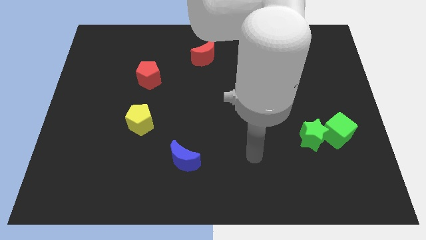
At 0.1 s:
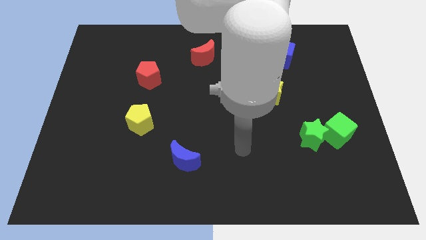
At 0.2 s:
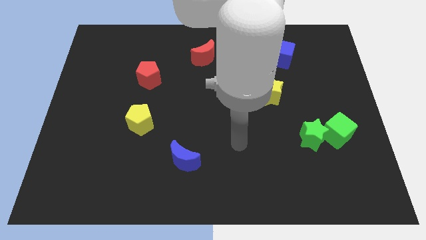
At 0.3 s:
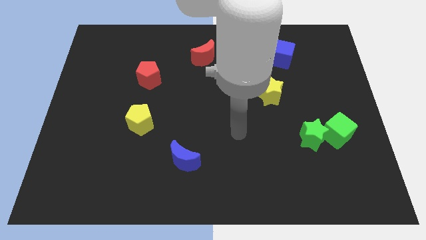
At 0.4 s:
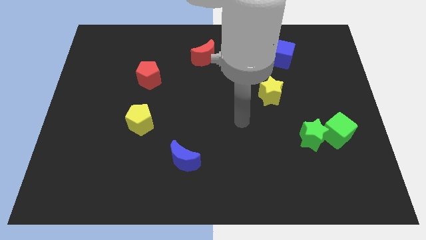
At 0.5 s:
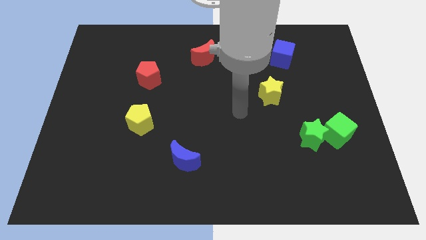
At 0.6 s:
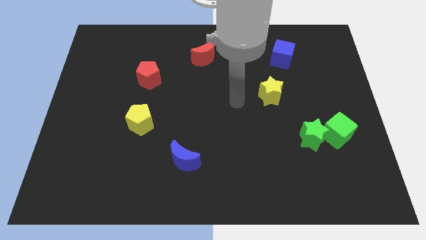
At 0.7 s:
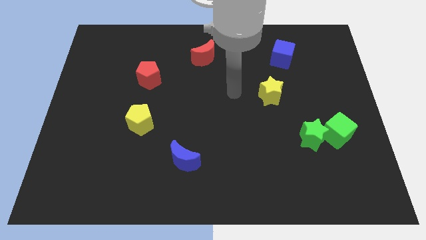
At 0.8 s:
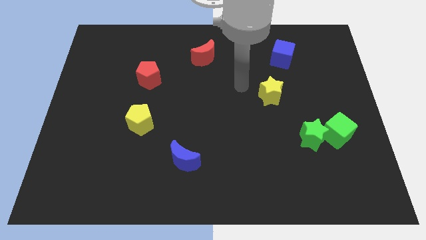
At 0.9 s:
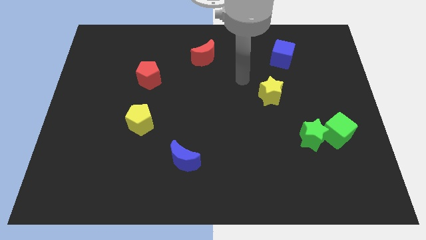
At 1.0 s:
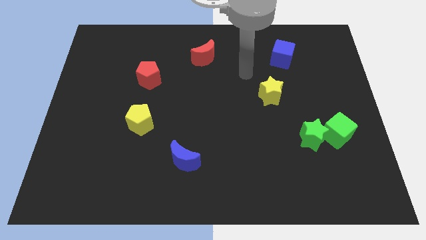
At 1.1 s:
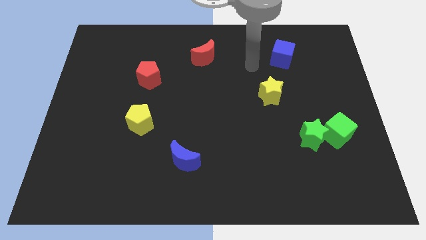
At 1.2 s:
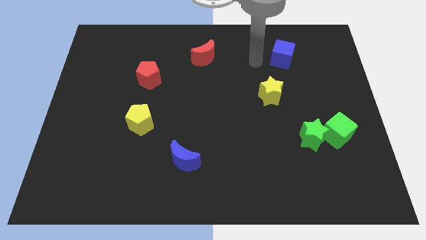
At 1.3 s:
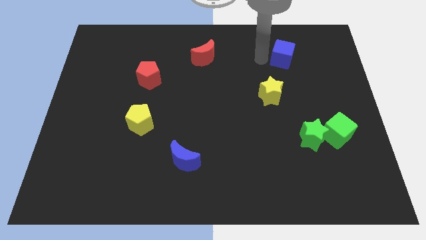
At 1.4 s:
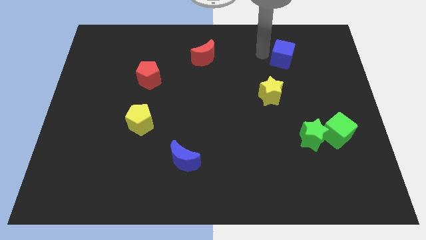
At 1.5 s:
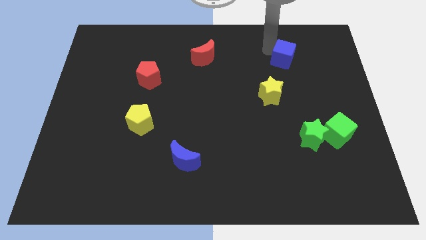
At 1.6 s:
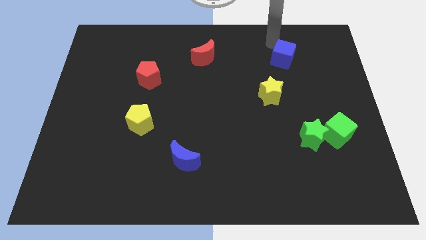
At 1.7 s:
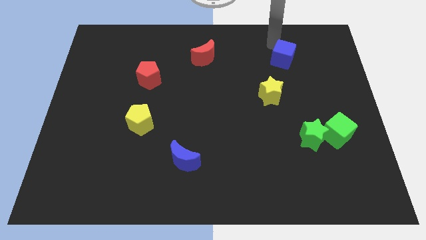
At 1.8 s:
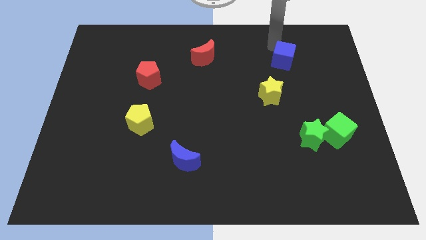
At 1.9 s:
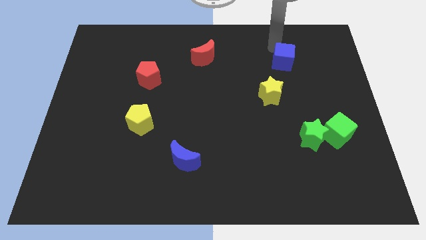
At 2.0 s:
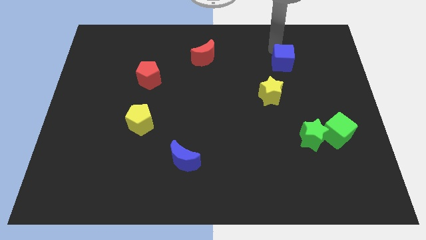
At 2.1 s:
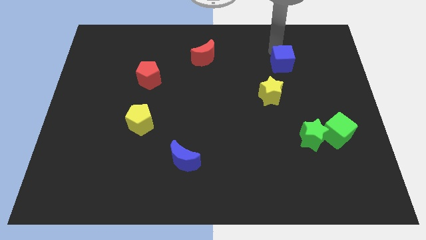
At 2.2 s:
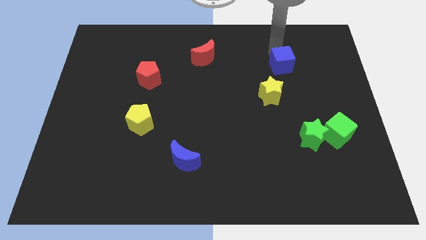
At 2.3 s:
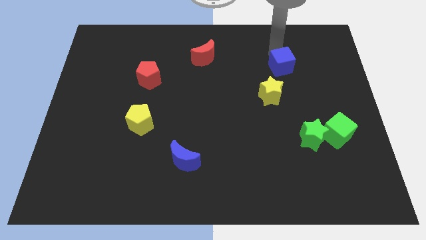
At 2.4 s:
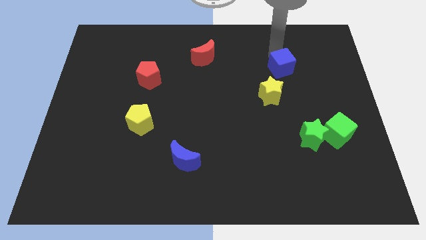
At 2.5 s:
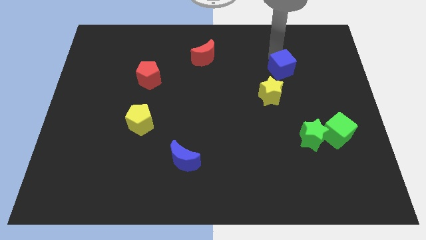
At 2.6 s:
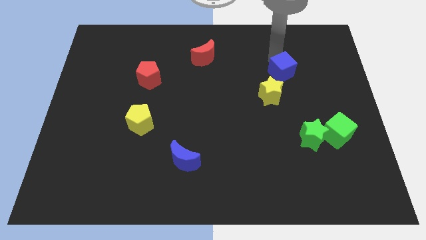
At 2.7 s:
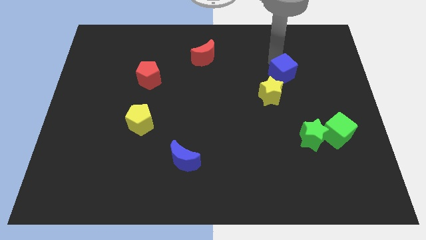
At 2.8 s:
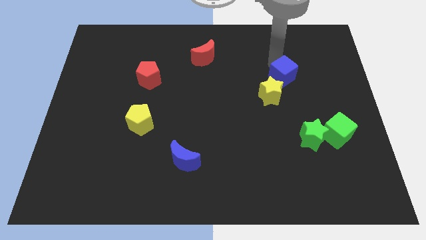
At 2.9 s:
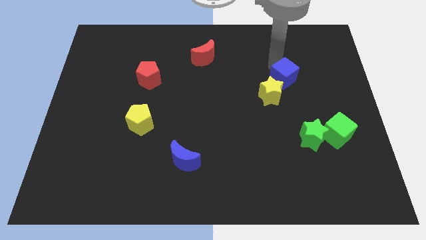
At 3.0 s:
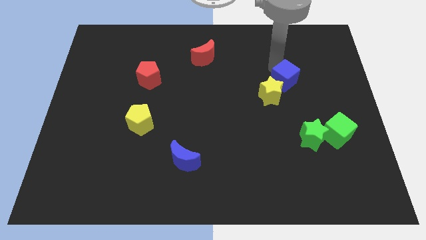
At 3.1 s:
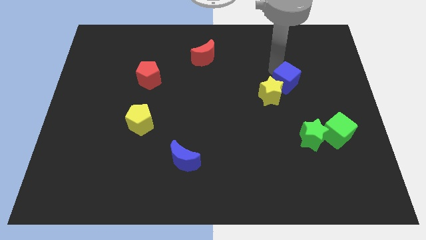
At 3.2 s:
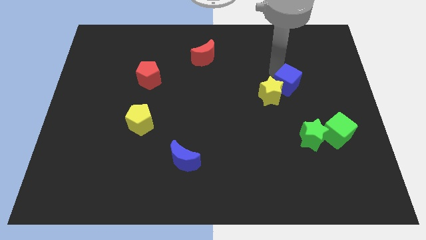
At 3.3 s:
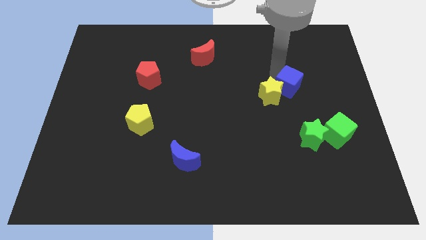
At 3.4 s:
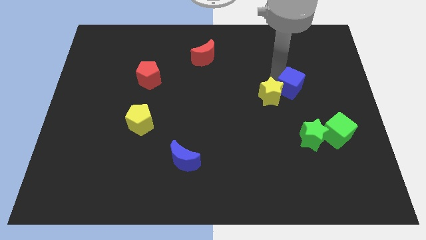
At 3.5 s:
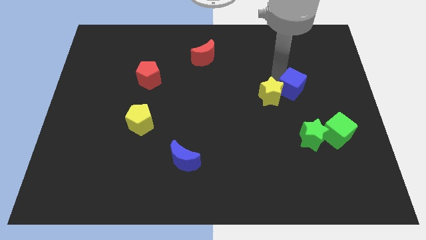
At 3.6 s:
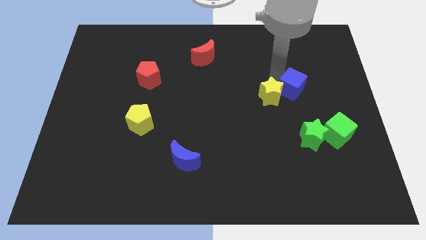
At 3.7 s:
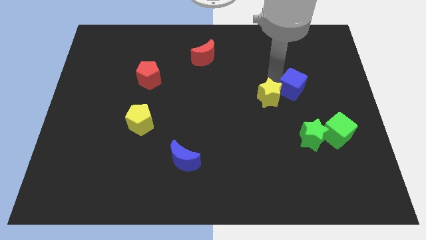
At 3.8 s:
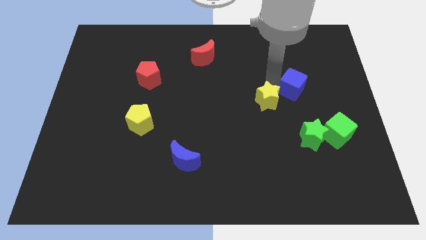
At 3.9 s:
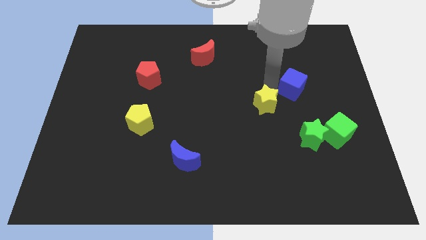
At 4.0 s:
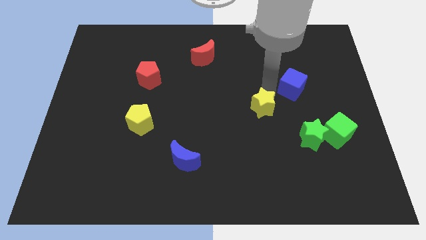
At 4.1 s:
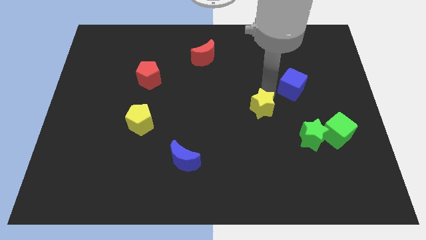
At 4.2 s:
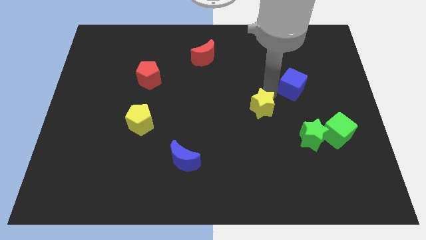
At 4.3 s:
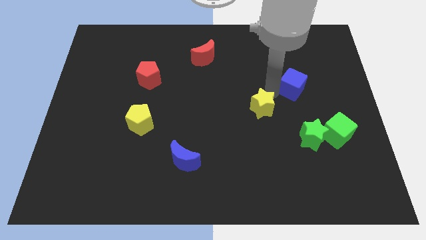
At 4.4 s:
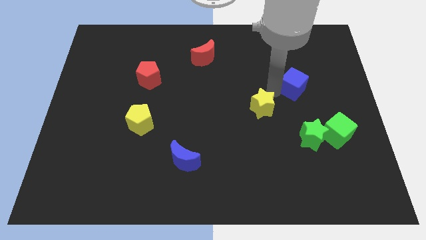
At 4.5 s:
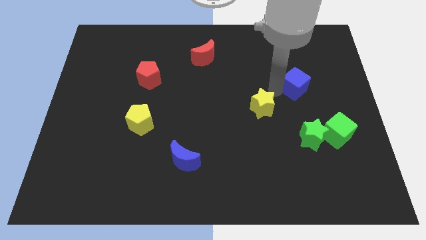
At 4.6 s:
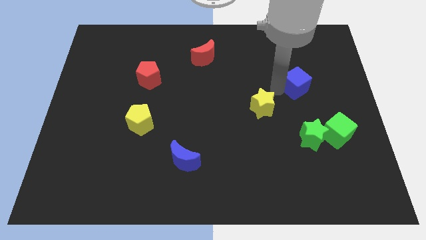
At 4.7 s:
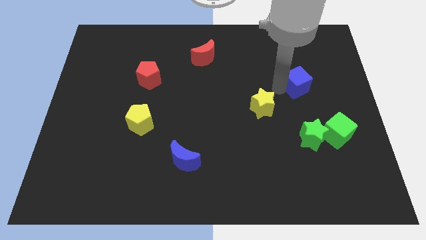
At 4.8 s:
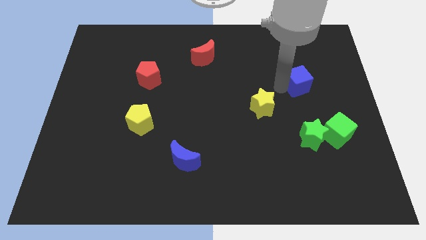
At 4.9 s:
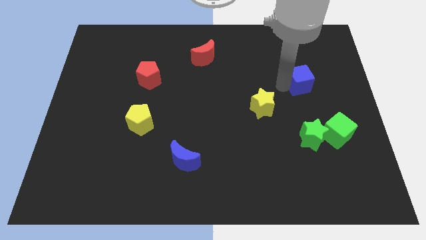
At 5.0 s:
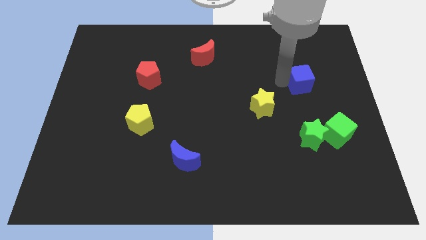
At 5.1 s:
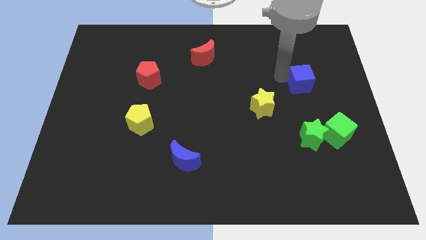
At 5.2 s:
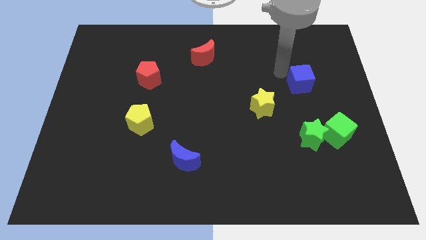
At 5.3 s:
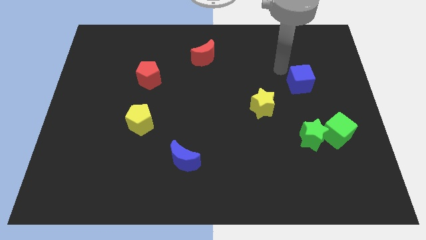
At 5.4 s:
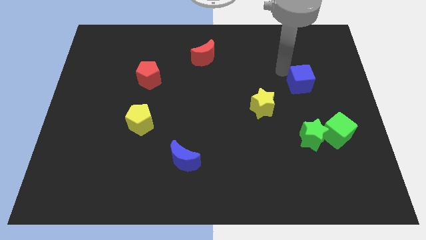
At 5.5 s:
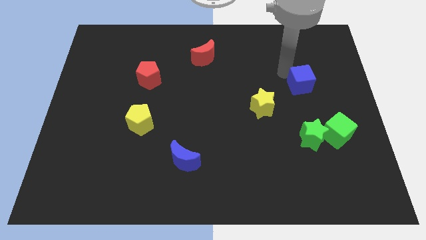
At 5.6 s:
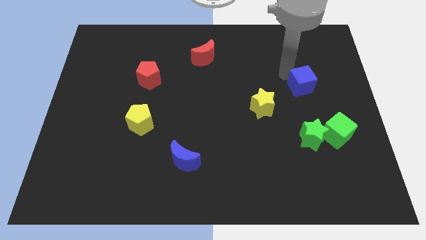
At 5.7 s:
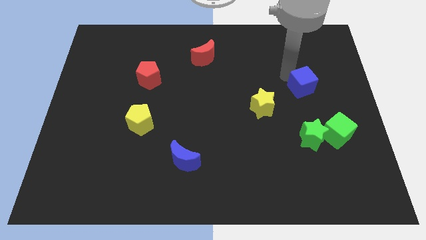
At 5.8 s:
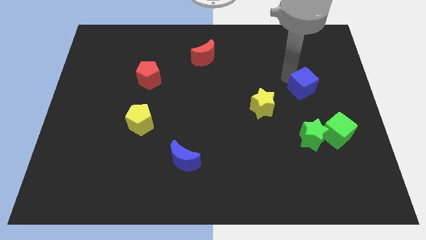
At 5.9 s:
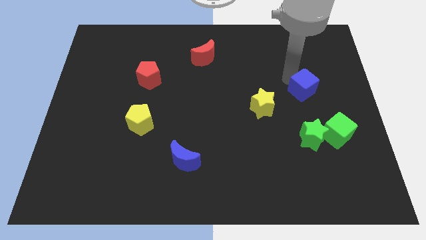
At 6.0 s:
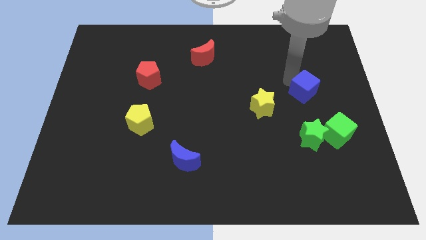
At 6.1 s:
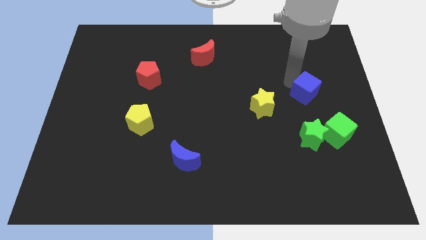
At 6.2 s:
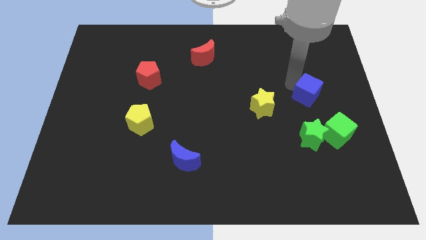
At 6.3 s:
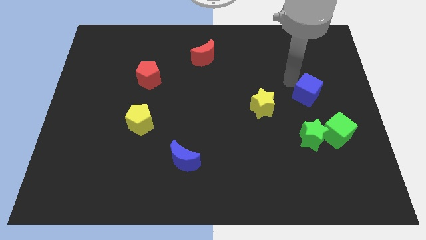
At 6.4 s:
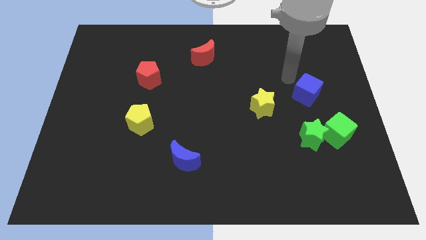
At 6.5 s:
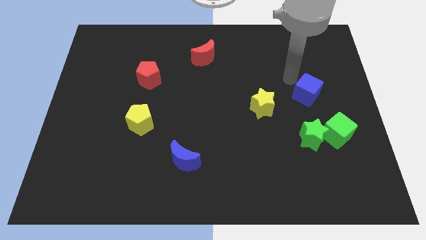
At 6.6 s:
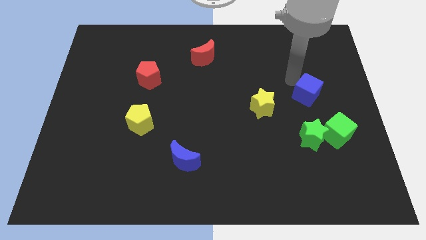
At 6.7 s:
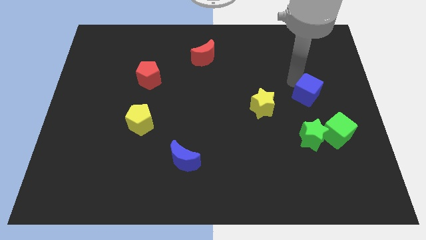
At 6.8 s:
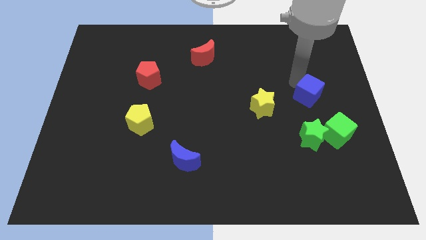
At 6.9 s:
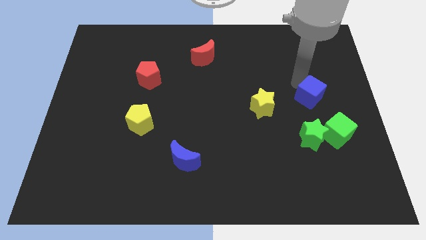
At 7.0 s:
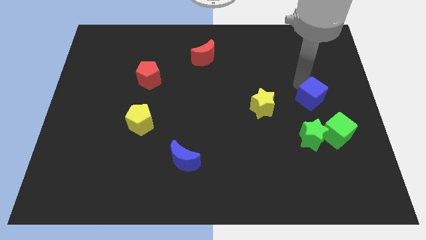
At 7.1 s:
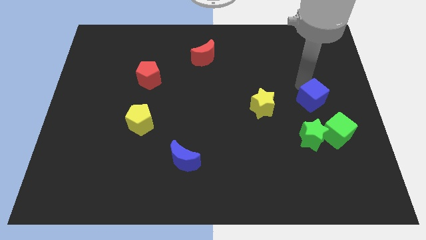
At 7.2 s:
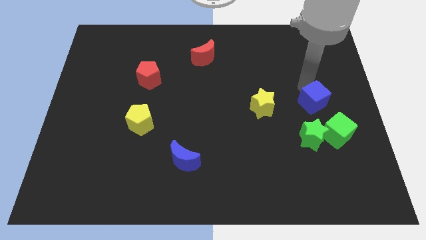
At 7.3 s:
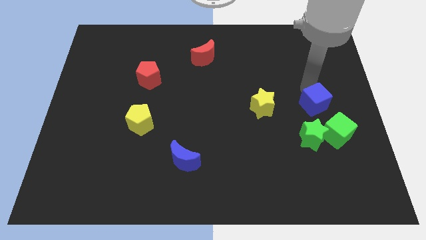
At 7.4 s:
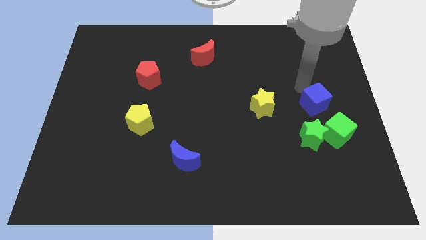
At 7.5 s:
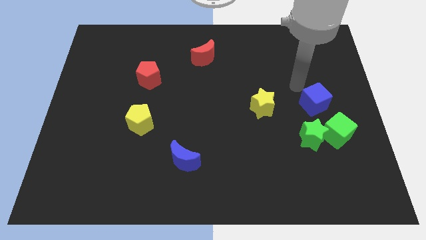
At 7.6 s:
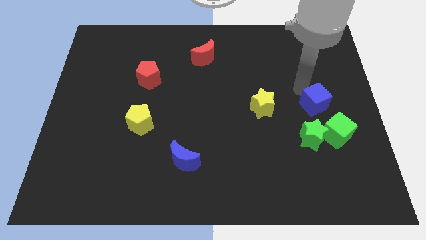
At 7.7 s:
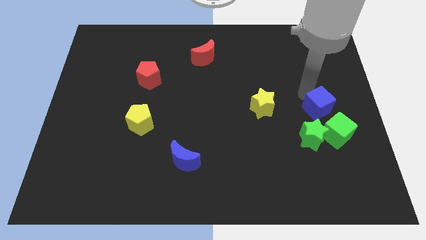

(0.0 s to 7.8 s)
slide the blue cube to the top right side of the green star
